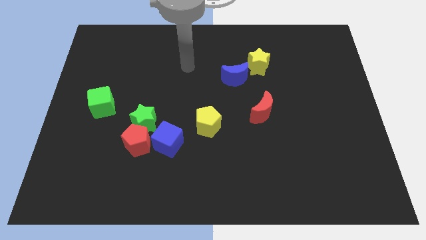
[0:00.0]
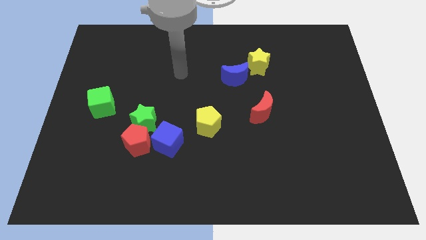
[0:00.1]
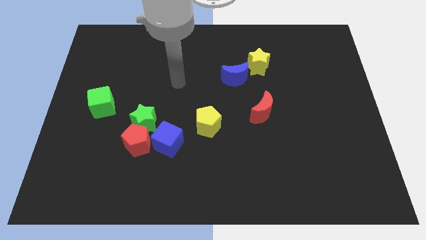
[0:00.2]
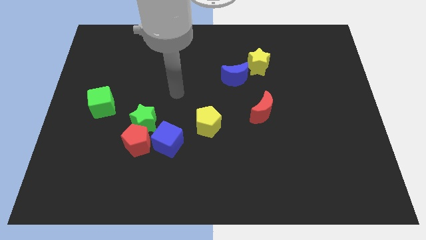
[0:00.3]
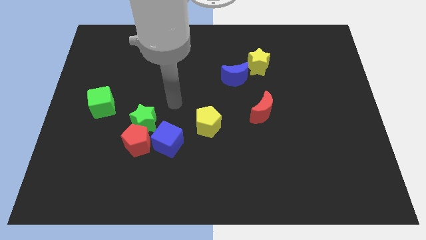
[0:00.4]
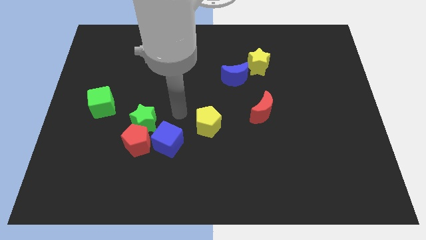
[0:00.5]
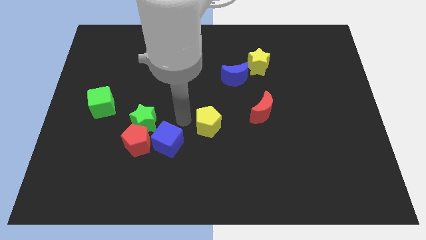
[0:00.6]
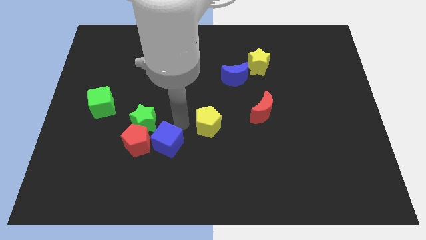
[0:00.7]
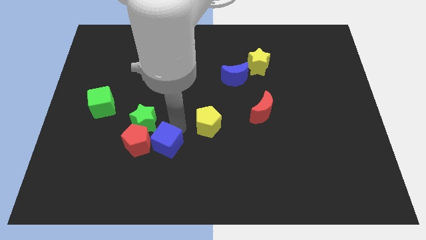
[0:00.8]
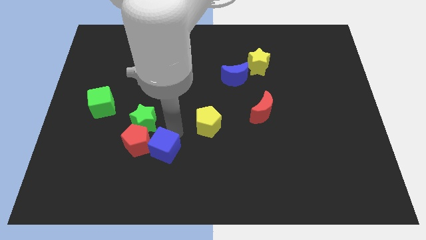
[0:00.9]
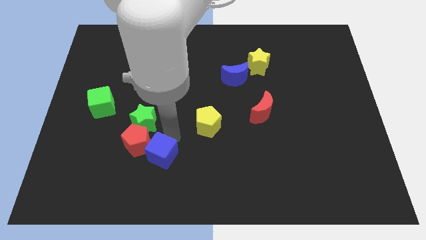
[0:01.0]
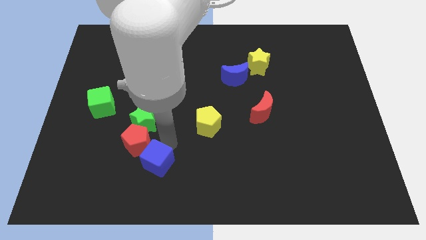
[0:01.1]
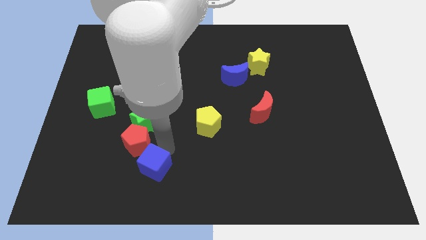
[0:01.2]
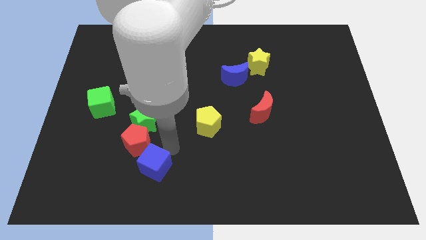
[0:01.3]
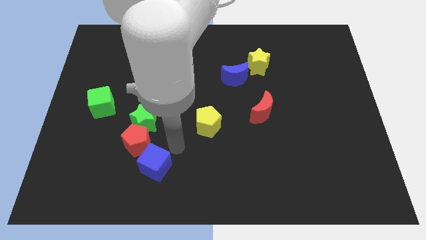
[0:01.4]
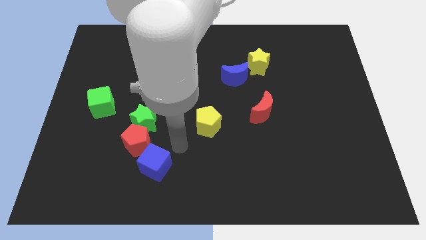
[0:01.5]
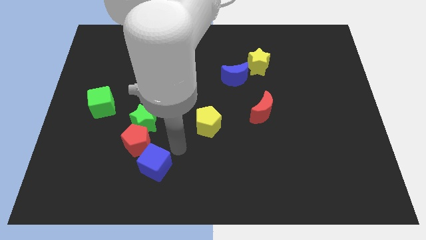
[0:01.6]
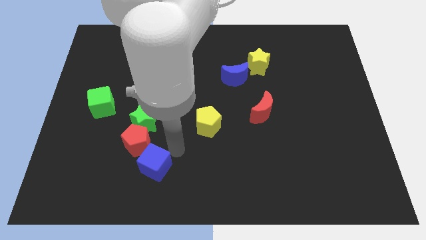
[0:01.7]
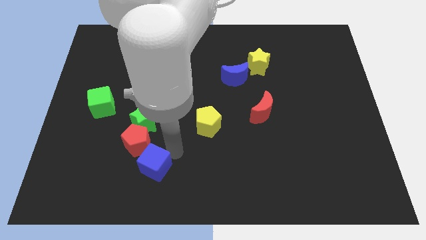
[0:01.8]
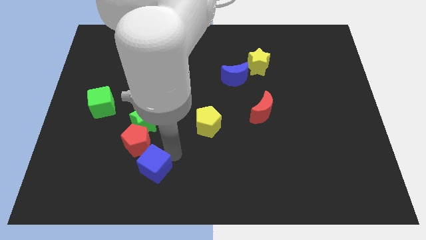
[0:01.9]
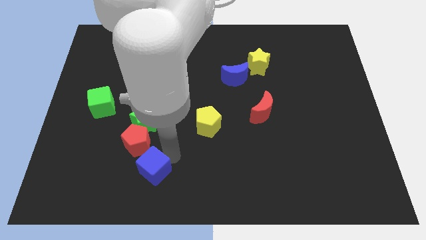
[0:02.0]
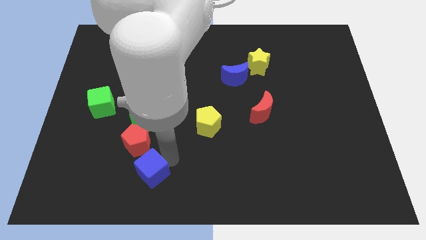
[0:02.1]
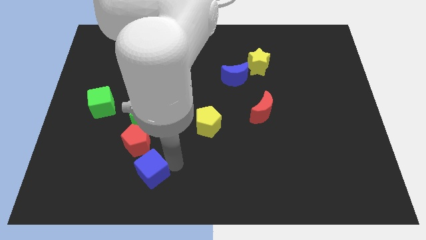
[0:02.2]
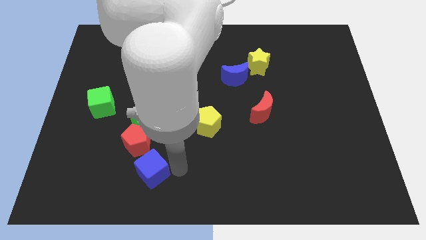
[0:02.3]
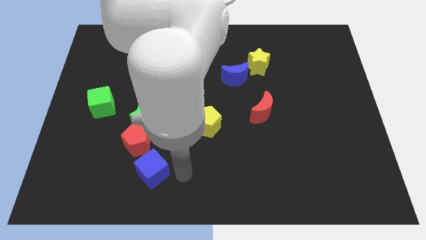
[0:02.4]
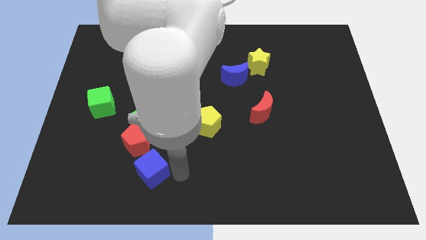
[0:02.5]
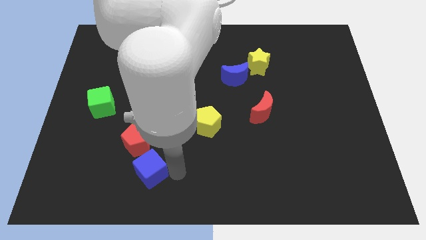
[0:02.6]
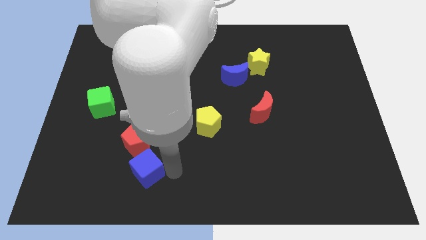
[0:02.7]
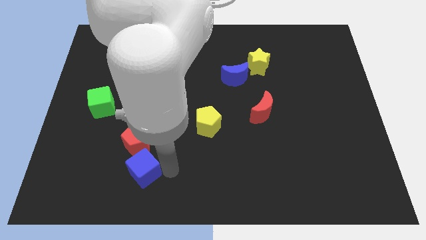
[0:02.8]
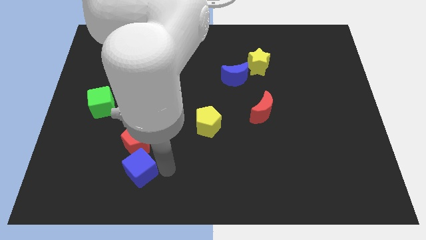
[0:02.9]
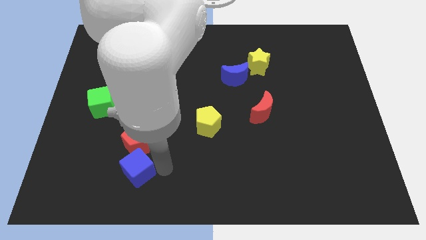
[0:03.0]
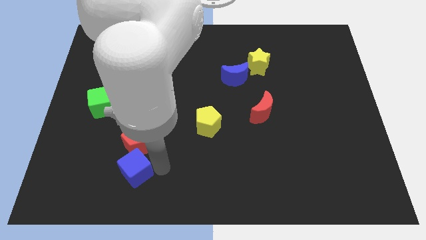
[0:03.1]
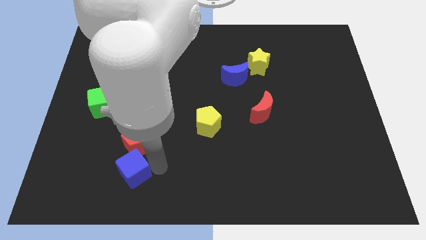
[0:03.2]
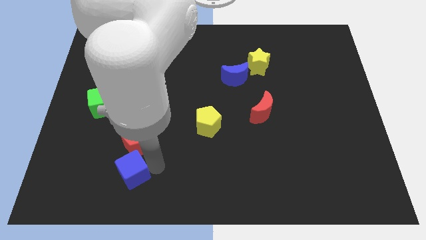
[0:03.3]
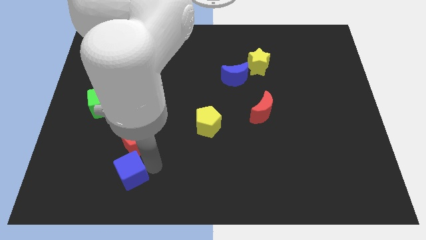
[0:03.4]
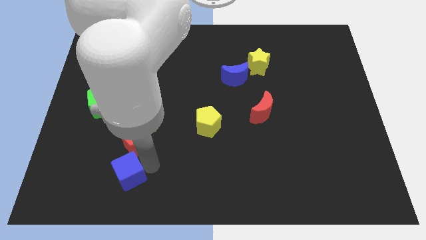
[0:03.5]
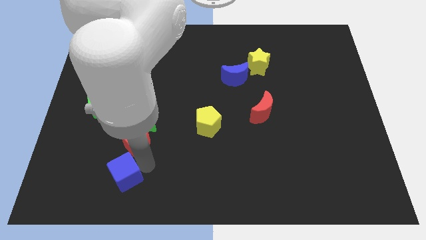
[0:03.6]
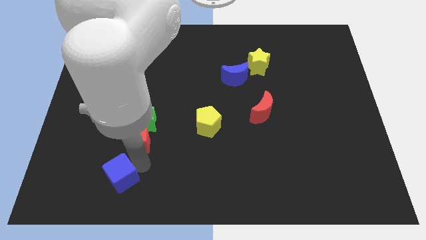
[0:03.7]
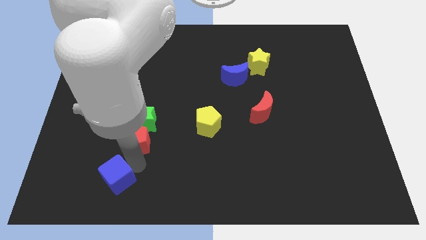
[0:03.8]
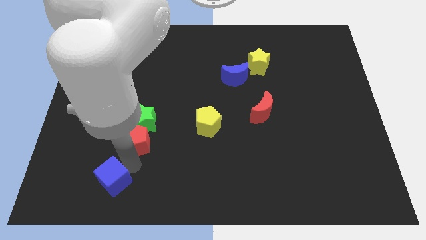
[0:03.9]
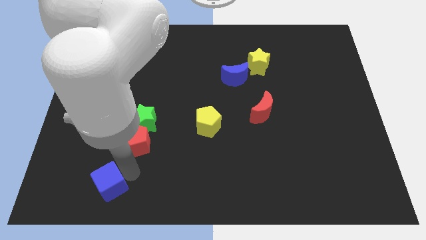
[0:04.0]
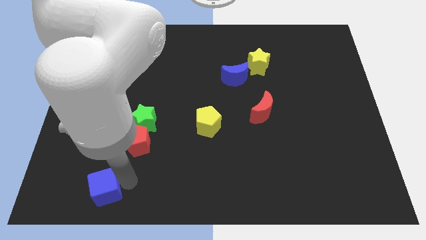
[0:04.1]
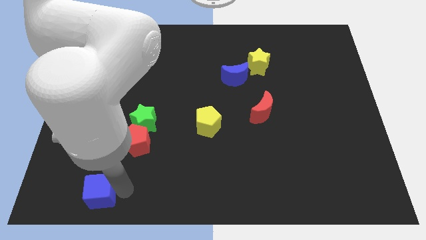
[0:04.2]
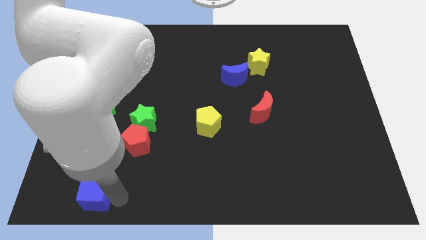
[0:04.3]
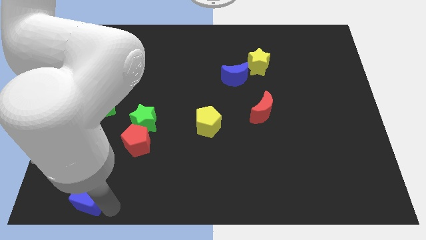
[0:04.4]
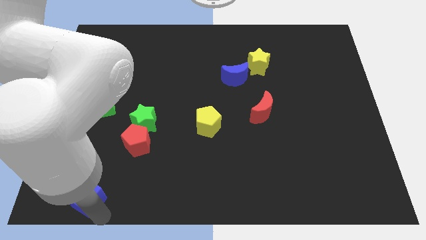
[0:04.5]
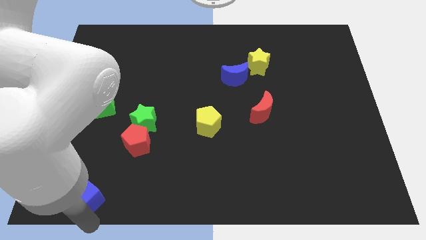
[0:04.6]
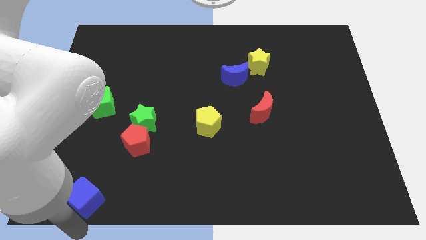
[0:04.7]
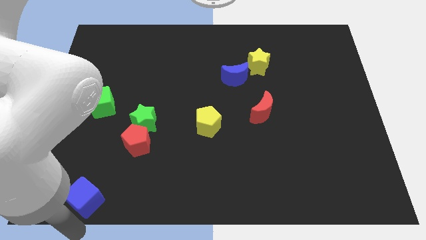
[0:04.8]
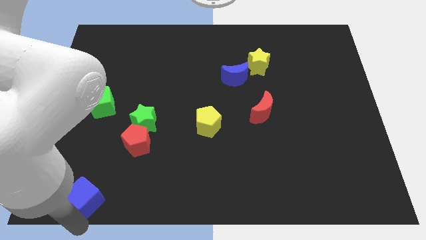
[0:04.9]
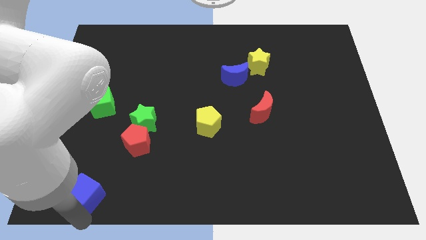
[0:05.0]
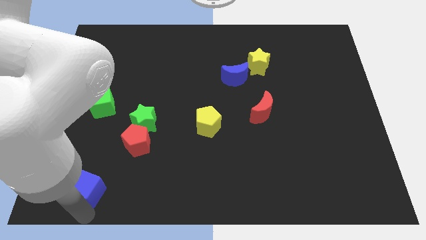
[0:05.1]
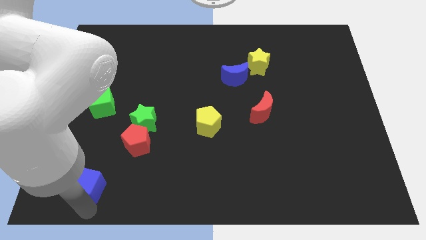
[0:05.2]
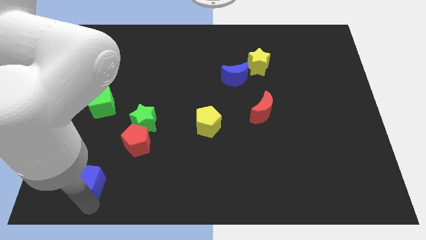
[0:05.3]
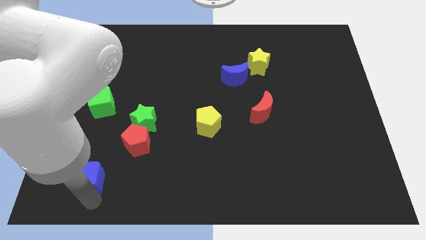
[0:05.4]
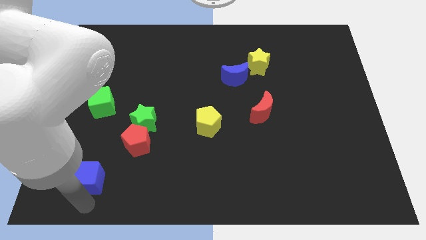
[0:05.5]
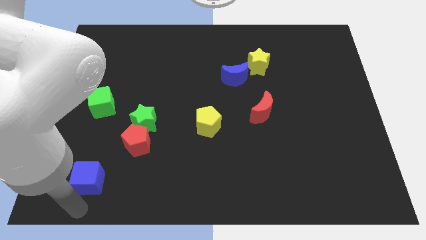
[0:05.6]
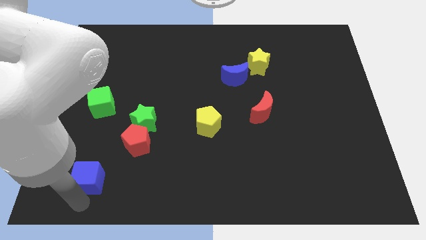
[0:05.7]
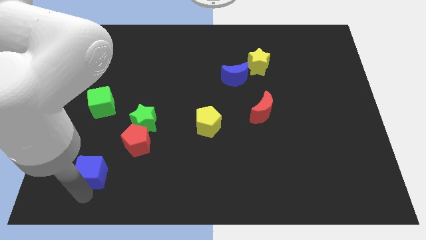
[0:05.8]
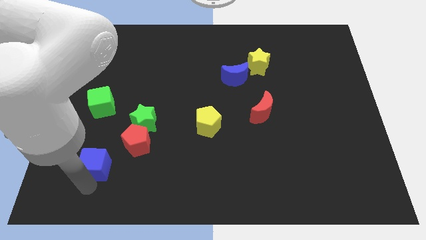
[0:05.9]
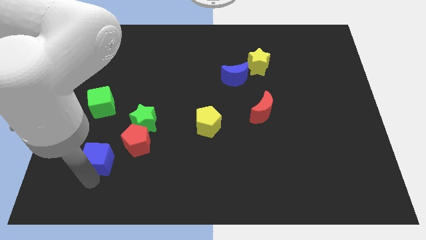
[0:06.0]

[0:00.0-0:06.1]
move the blue cube to the left of the red pentagon

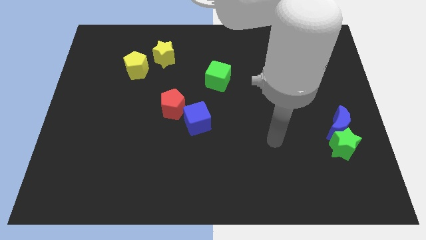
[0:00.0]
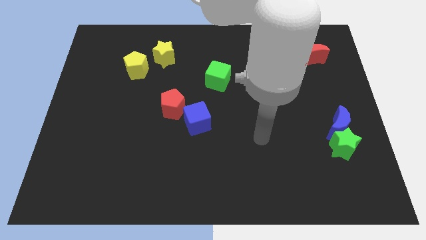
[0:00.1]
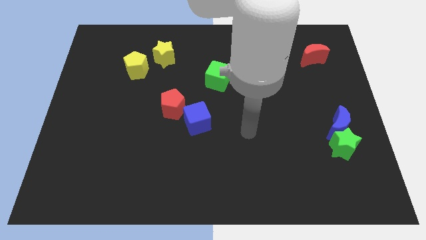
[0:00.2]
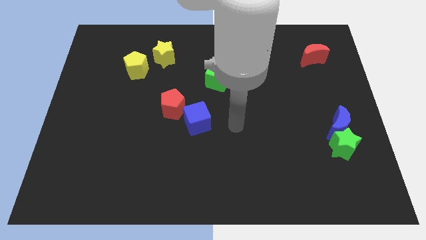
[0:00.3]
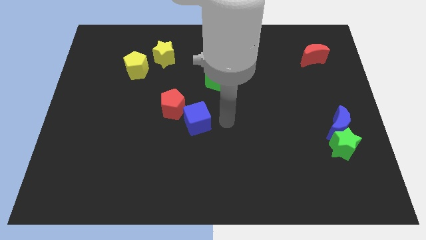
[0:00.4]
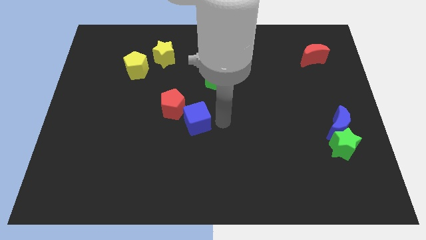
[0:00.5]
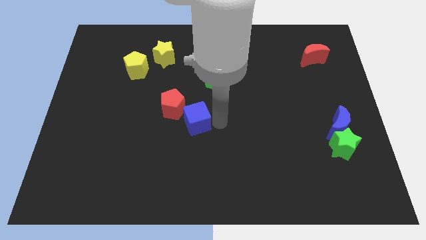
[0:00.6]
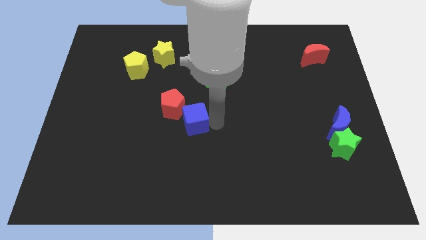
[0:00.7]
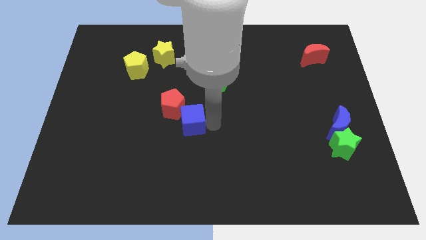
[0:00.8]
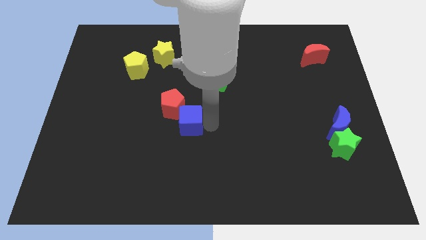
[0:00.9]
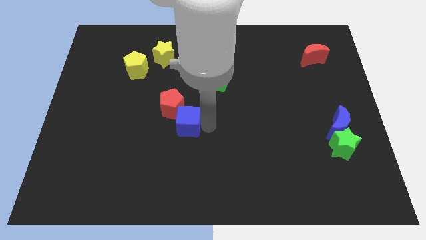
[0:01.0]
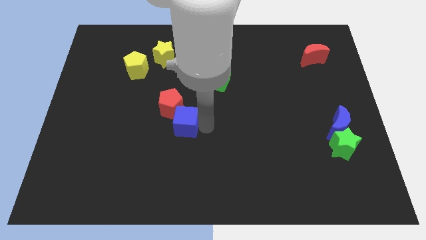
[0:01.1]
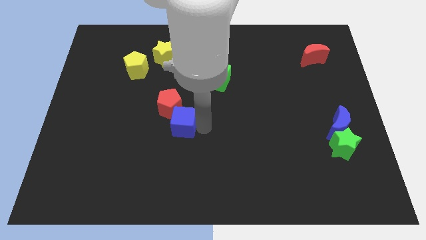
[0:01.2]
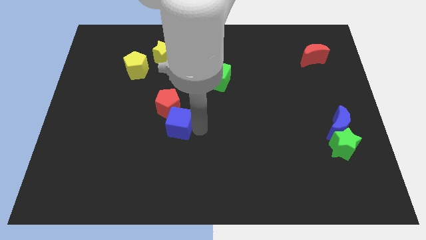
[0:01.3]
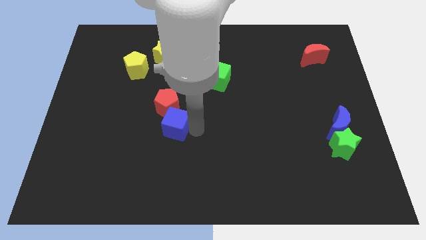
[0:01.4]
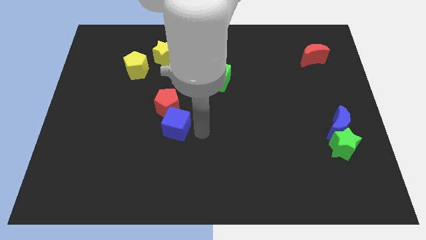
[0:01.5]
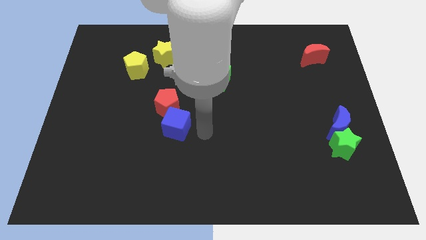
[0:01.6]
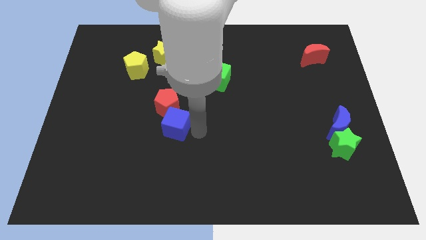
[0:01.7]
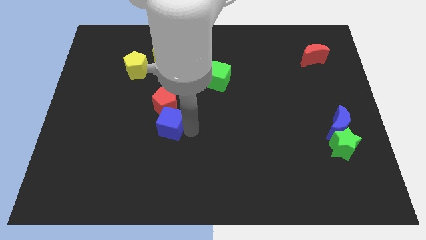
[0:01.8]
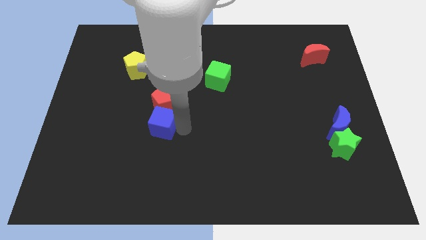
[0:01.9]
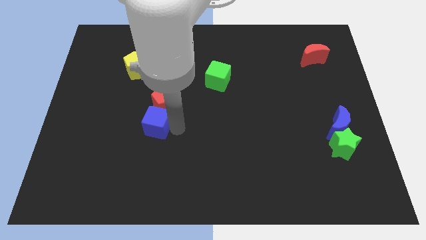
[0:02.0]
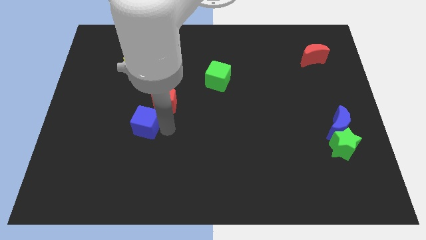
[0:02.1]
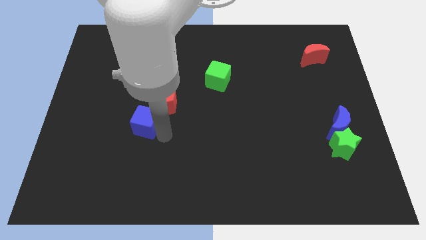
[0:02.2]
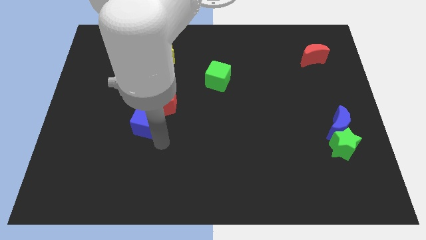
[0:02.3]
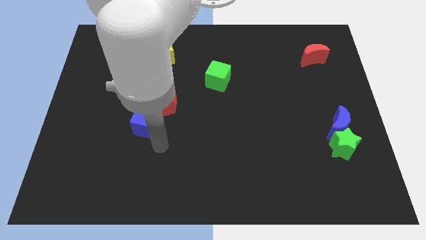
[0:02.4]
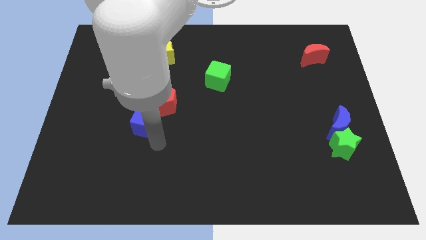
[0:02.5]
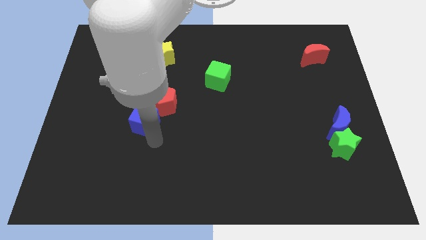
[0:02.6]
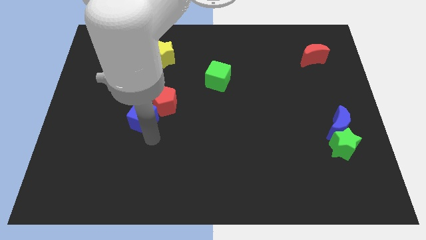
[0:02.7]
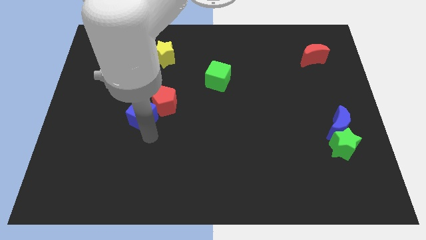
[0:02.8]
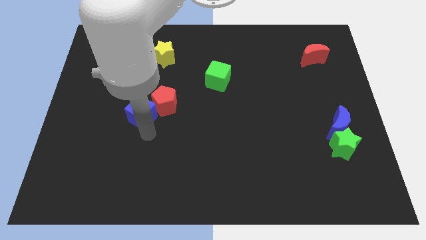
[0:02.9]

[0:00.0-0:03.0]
put the blue cube to the bottom side of the yellow pentagon
